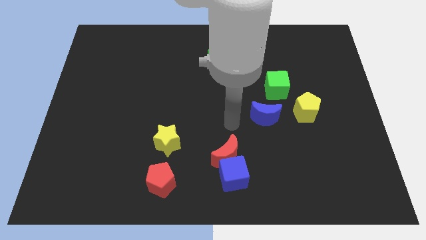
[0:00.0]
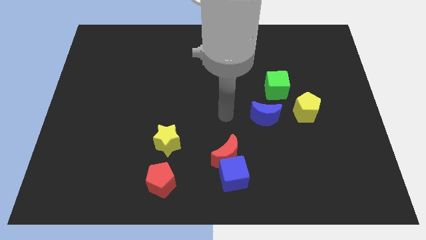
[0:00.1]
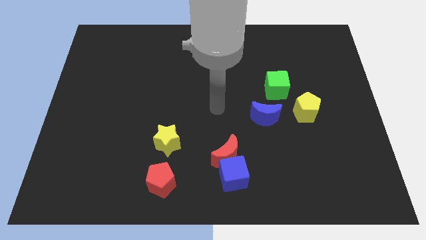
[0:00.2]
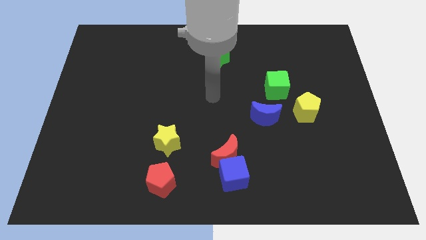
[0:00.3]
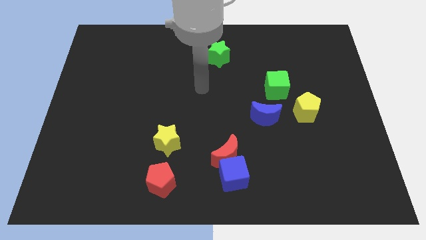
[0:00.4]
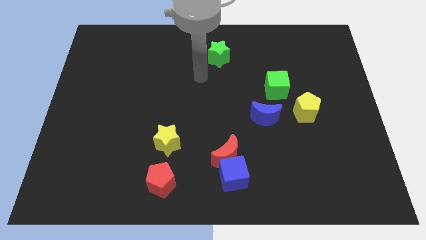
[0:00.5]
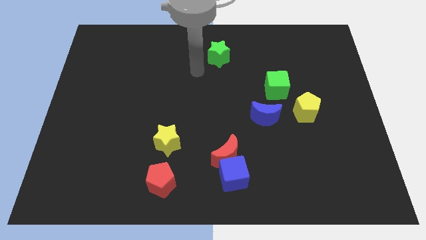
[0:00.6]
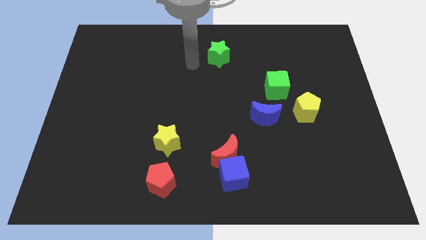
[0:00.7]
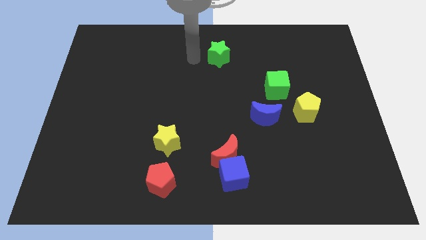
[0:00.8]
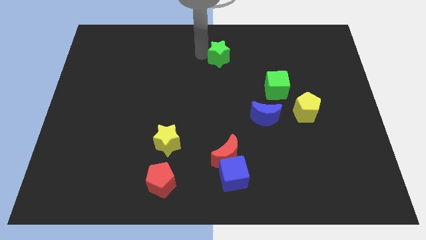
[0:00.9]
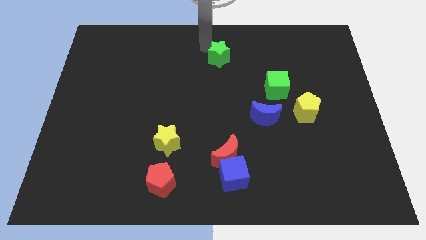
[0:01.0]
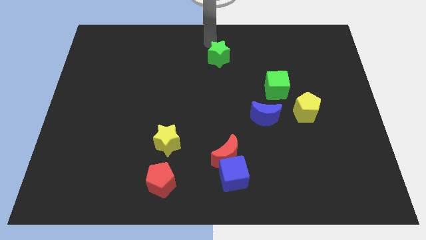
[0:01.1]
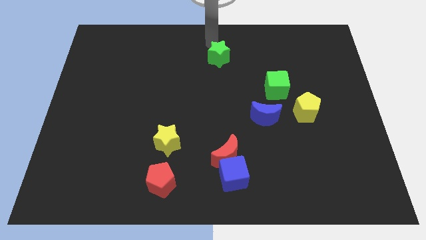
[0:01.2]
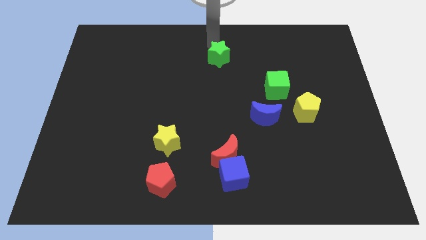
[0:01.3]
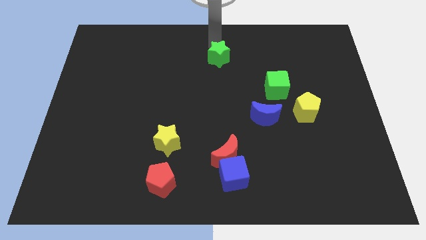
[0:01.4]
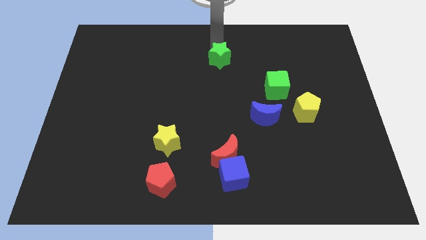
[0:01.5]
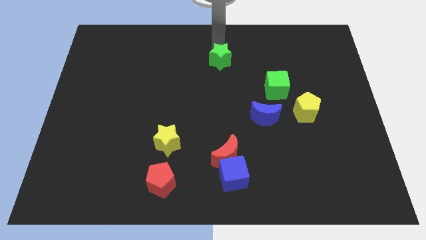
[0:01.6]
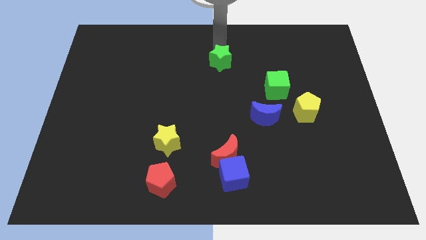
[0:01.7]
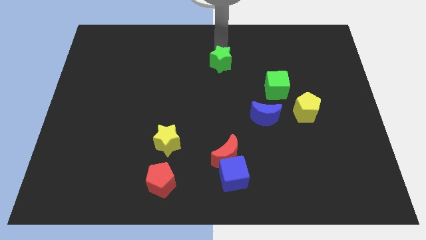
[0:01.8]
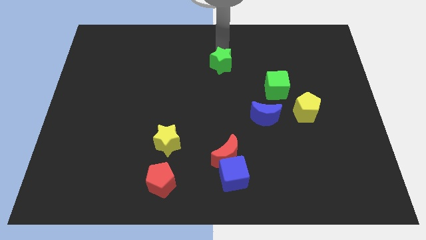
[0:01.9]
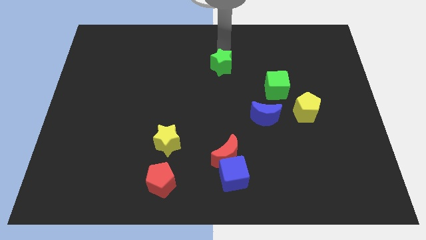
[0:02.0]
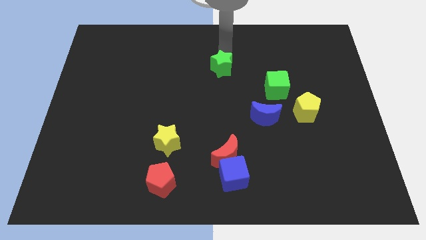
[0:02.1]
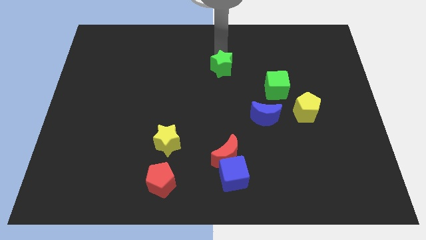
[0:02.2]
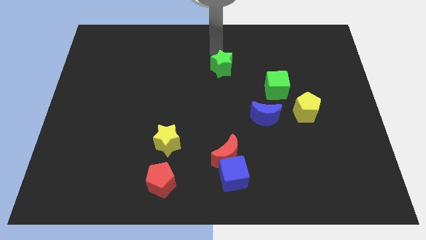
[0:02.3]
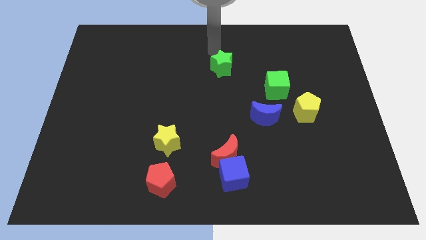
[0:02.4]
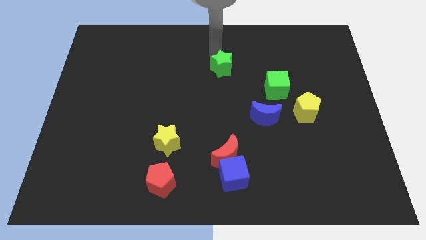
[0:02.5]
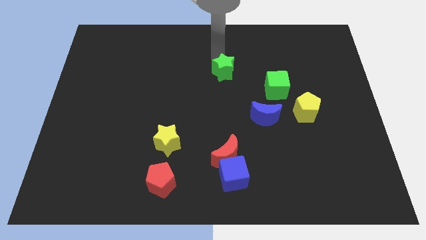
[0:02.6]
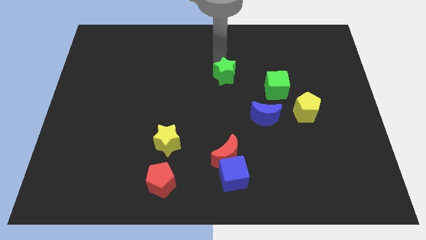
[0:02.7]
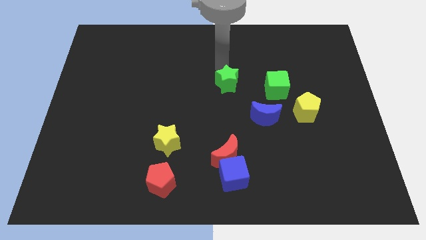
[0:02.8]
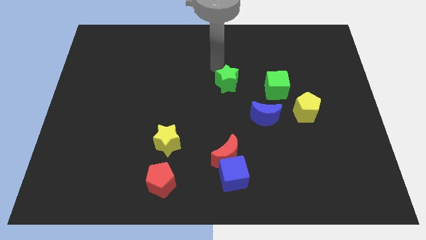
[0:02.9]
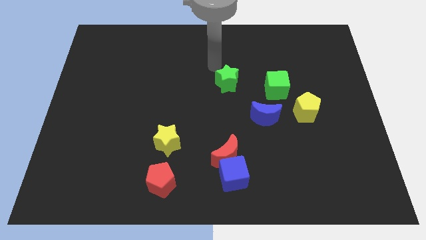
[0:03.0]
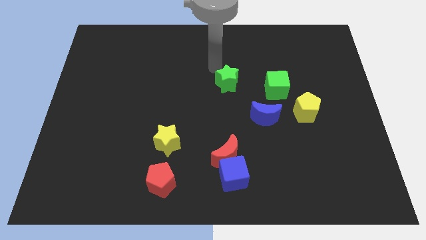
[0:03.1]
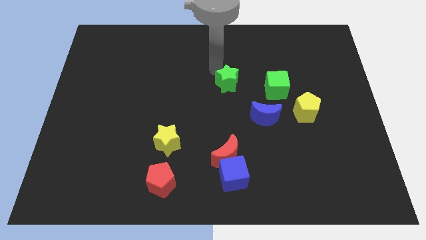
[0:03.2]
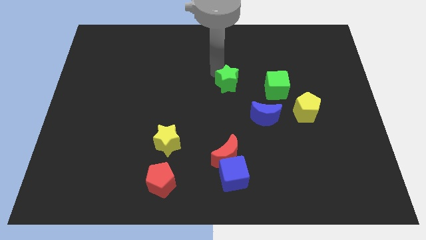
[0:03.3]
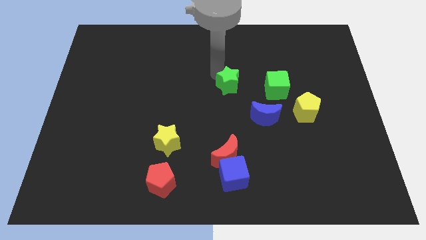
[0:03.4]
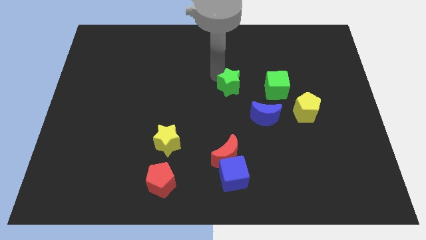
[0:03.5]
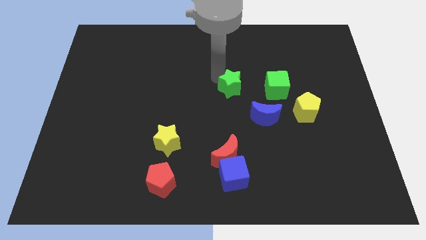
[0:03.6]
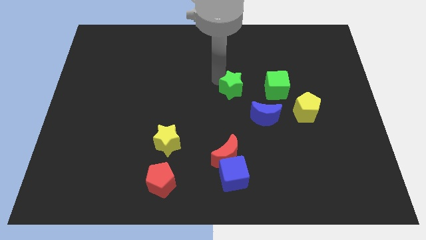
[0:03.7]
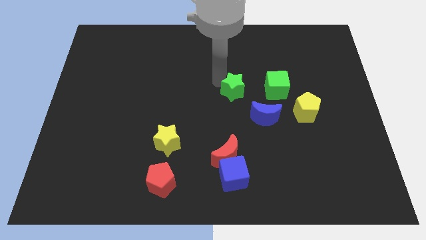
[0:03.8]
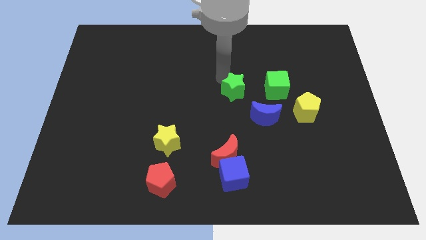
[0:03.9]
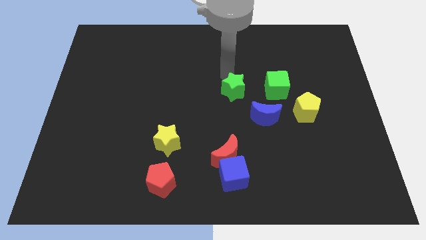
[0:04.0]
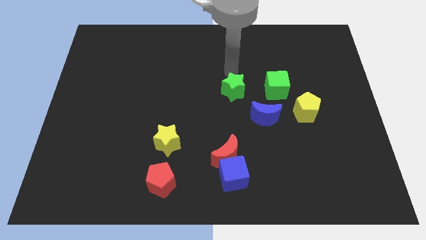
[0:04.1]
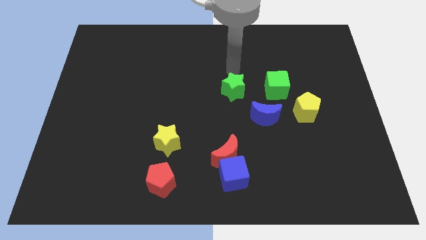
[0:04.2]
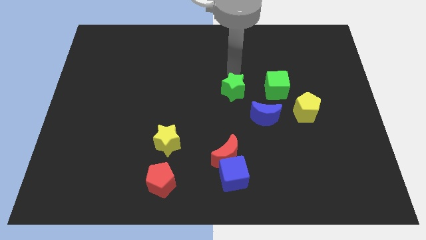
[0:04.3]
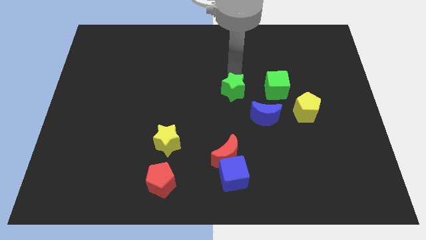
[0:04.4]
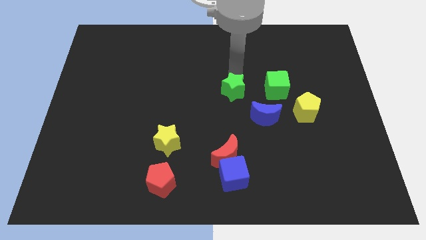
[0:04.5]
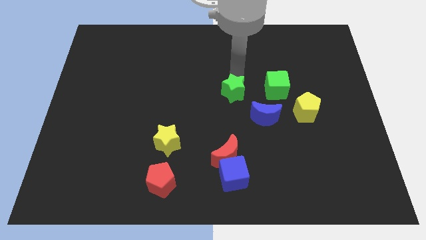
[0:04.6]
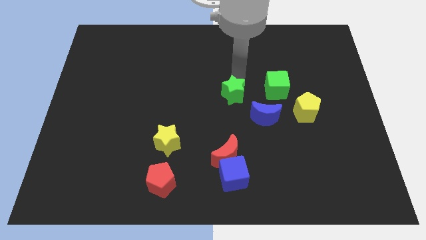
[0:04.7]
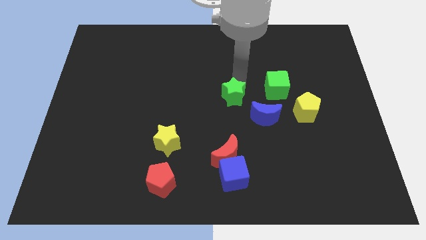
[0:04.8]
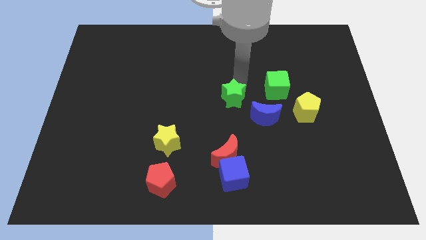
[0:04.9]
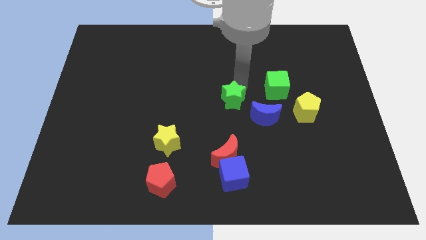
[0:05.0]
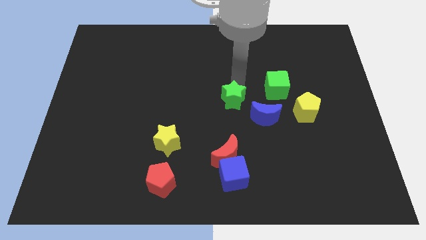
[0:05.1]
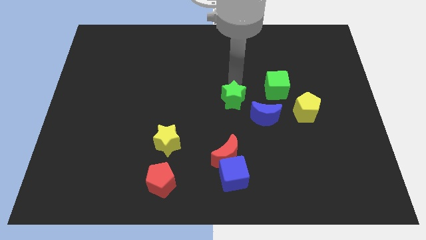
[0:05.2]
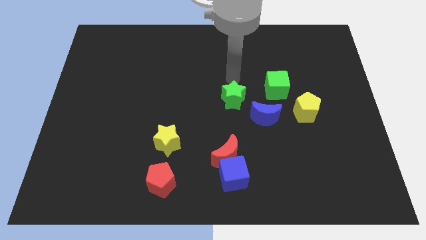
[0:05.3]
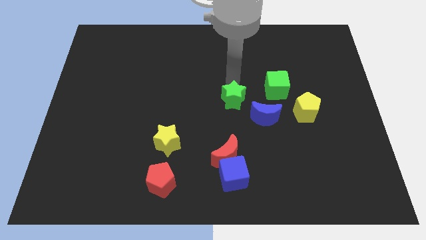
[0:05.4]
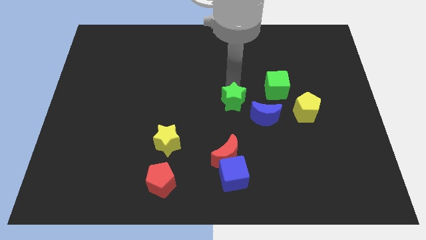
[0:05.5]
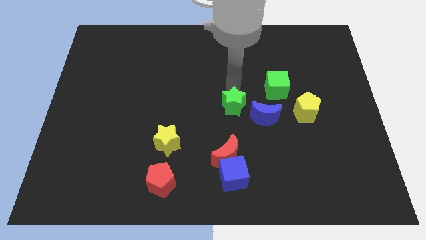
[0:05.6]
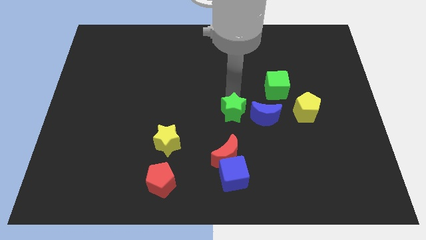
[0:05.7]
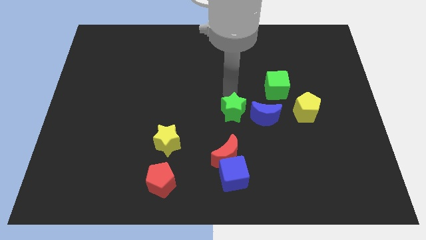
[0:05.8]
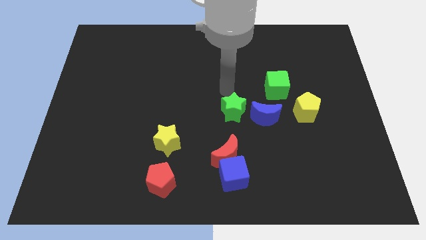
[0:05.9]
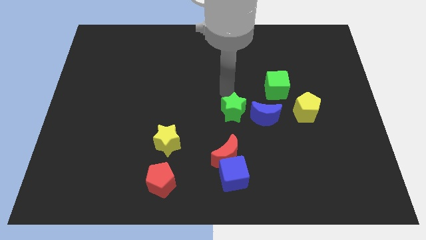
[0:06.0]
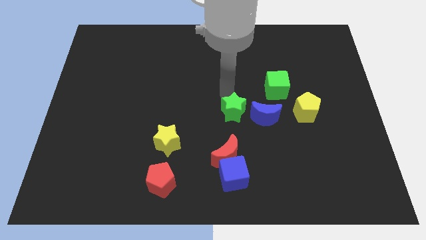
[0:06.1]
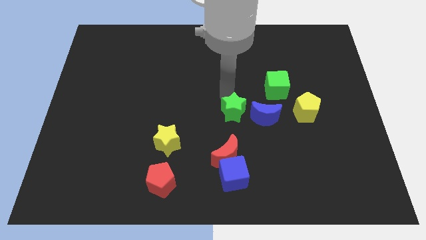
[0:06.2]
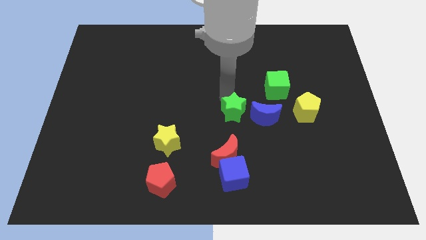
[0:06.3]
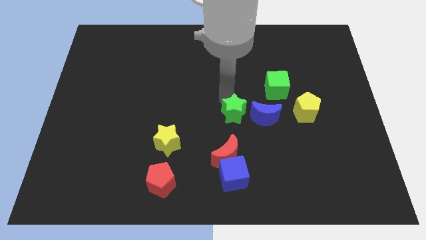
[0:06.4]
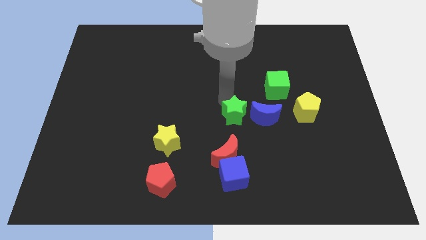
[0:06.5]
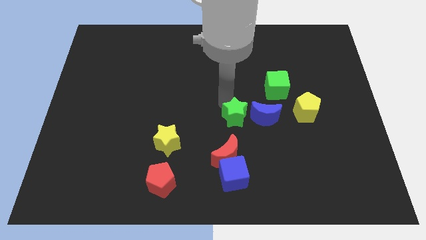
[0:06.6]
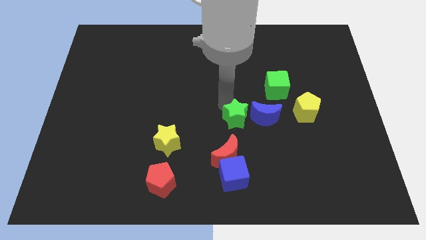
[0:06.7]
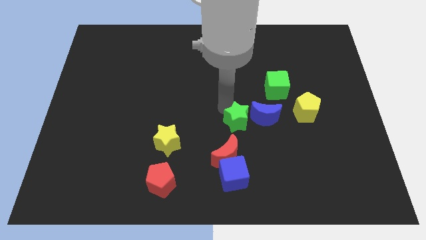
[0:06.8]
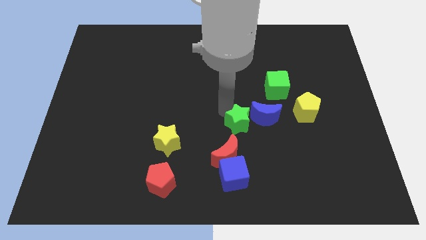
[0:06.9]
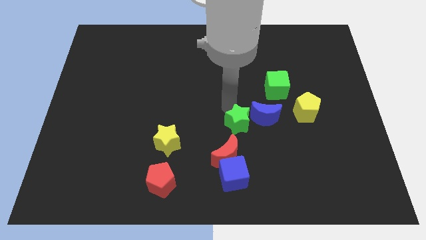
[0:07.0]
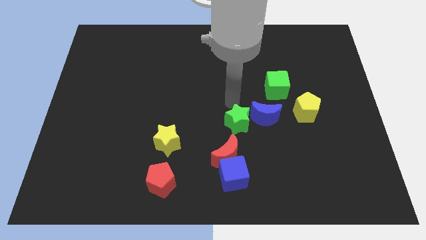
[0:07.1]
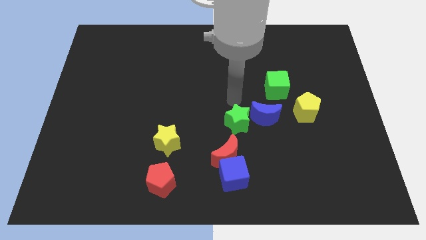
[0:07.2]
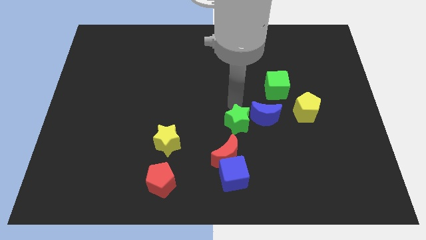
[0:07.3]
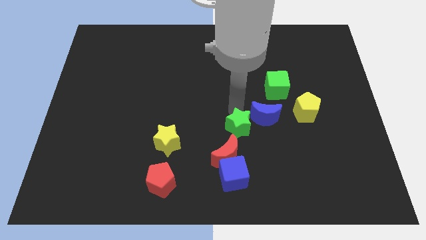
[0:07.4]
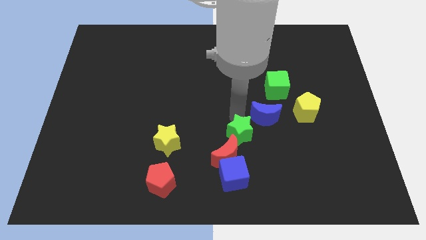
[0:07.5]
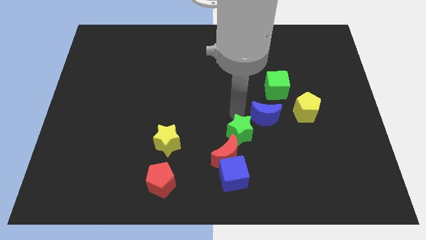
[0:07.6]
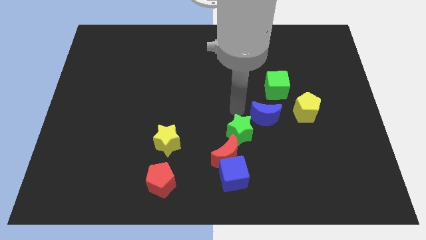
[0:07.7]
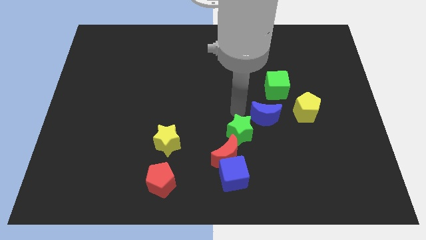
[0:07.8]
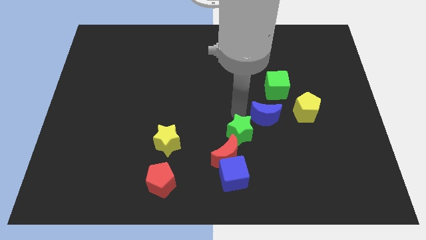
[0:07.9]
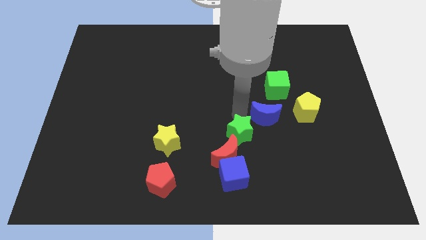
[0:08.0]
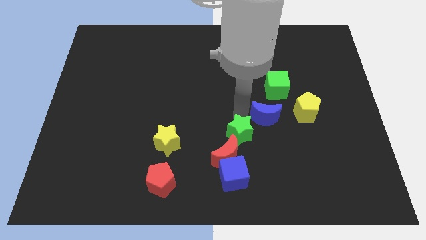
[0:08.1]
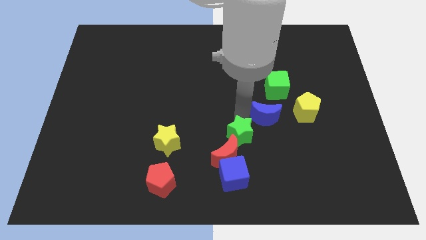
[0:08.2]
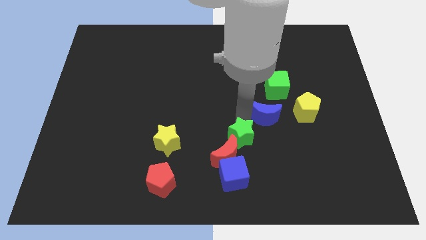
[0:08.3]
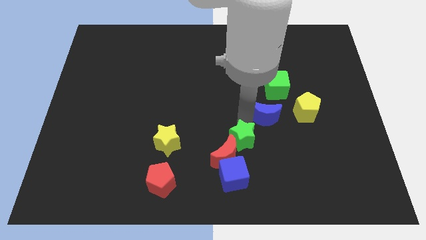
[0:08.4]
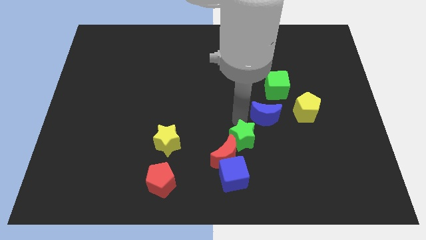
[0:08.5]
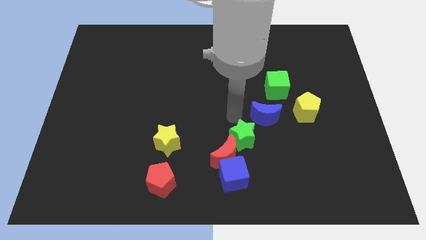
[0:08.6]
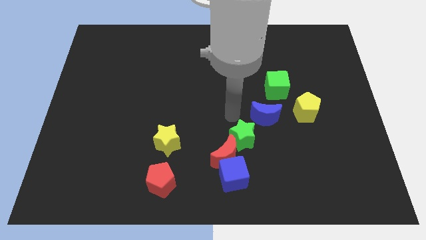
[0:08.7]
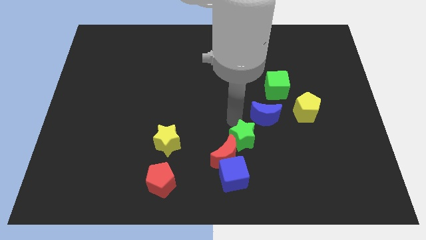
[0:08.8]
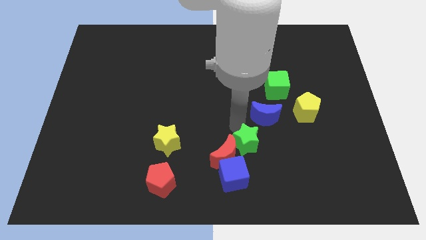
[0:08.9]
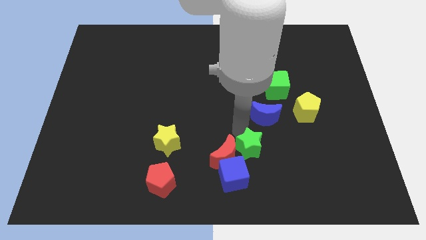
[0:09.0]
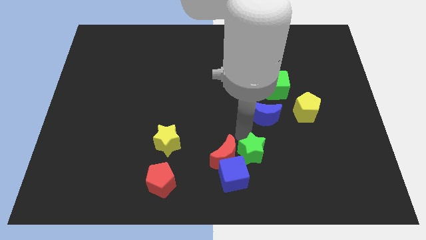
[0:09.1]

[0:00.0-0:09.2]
slide the green star to the bottom right side of the red moon
